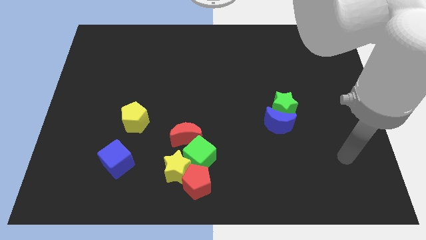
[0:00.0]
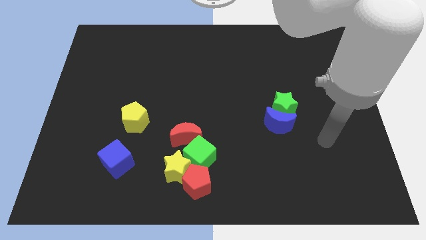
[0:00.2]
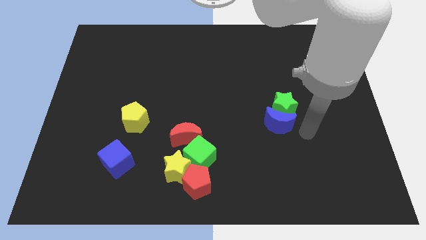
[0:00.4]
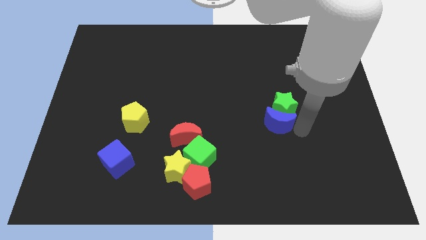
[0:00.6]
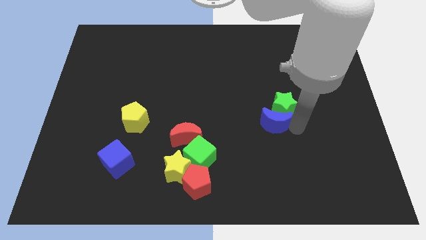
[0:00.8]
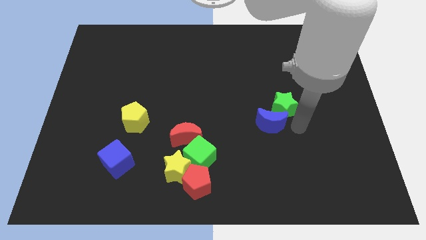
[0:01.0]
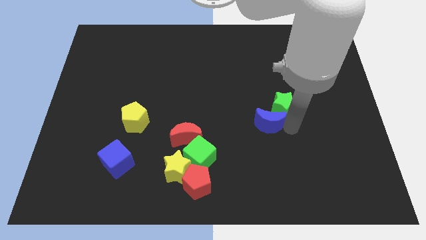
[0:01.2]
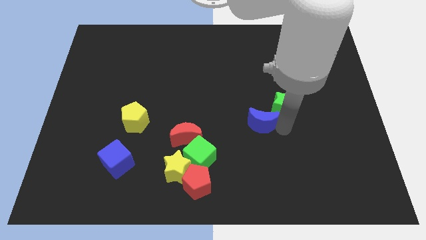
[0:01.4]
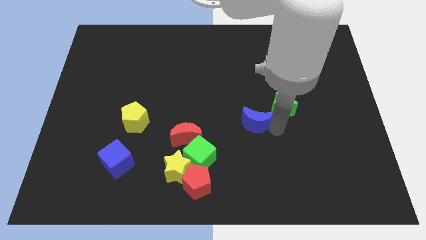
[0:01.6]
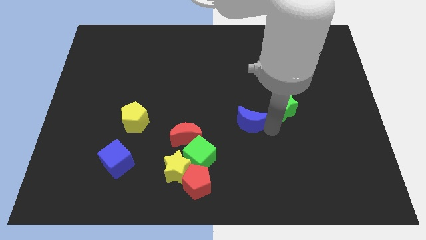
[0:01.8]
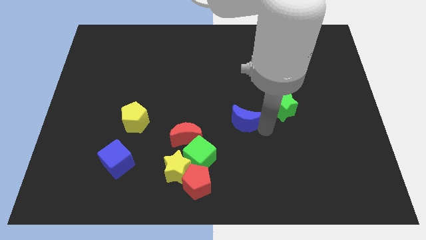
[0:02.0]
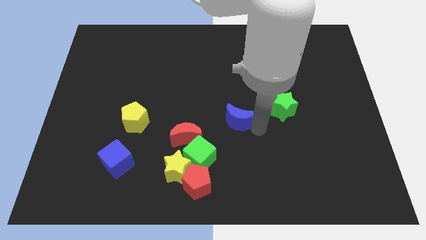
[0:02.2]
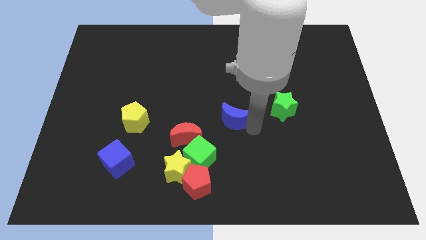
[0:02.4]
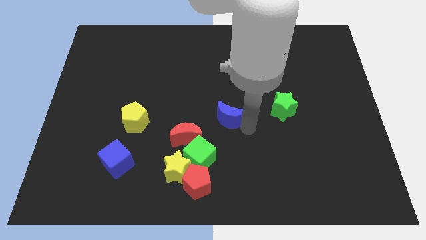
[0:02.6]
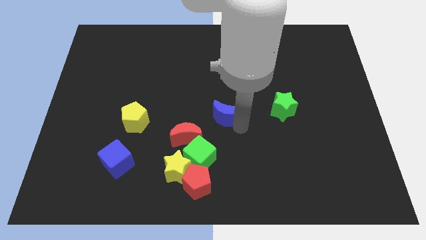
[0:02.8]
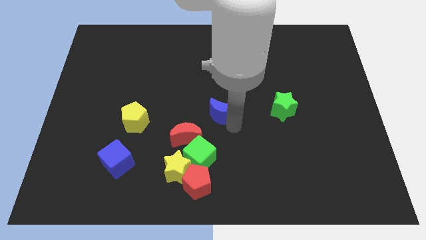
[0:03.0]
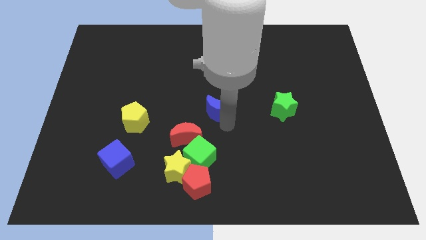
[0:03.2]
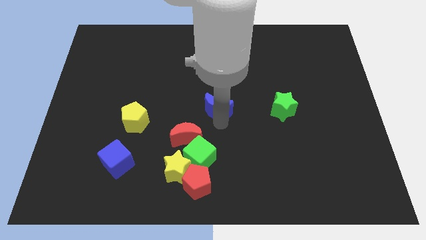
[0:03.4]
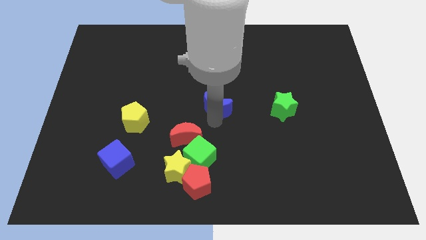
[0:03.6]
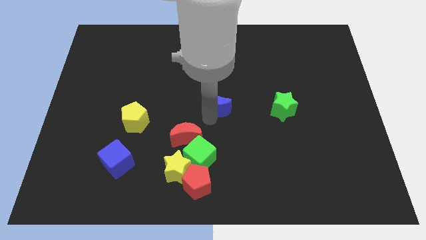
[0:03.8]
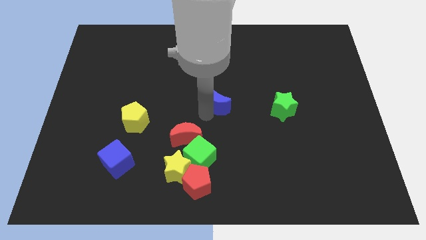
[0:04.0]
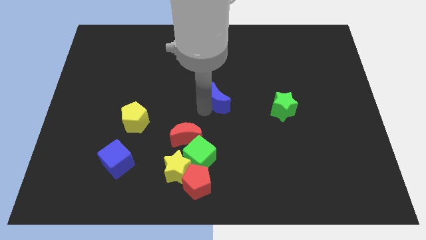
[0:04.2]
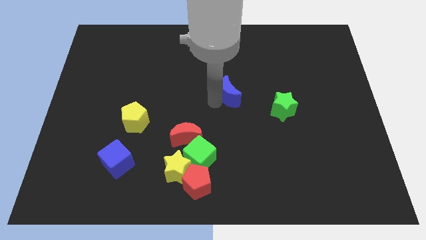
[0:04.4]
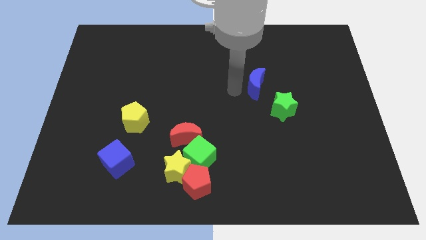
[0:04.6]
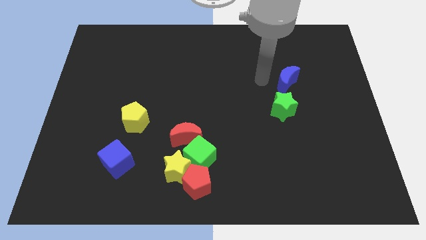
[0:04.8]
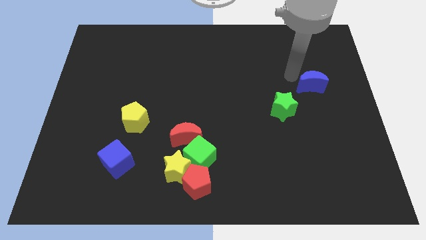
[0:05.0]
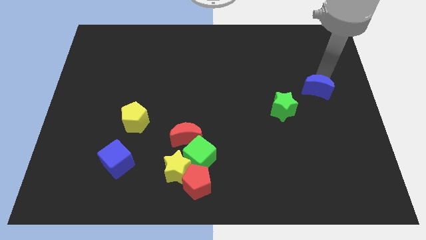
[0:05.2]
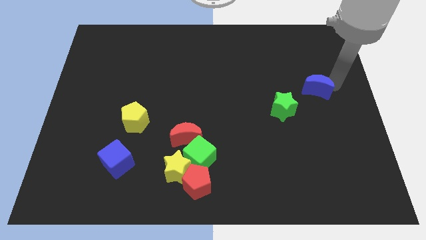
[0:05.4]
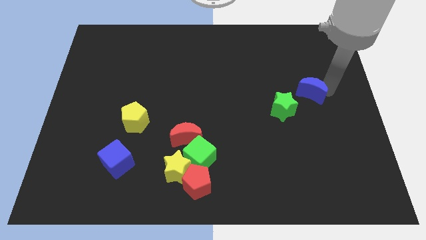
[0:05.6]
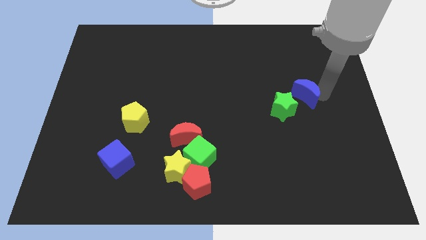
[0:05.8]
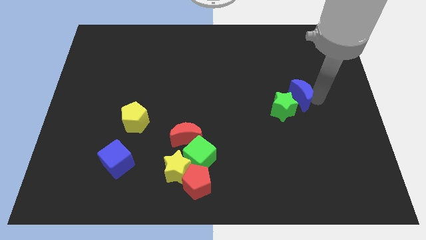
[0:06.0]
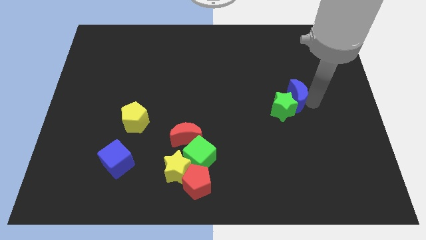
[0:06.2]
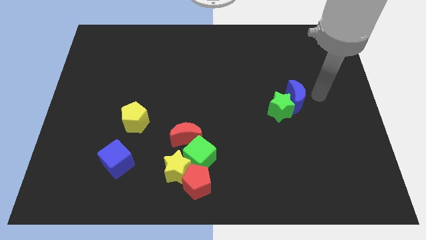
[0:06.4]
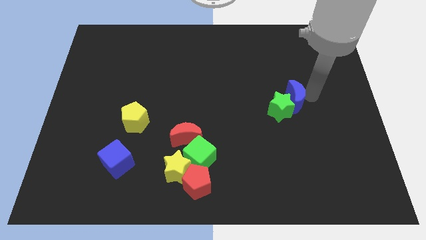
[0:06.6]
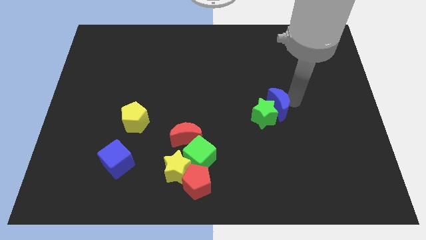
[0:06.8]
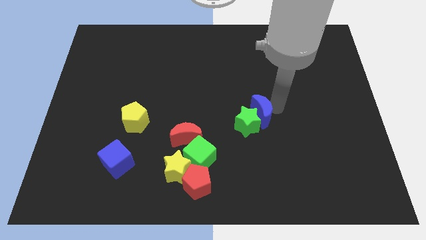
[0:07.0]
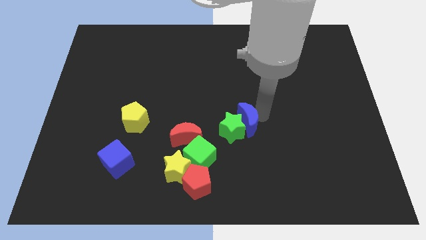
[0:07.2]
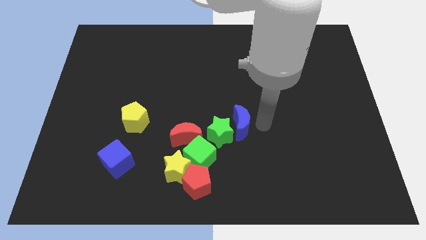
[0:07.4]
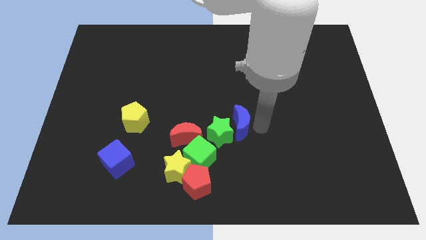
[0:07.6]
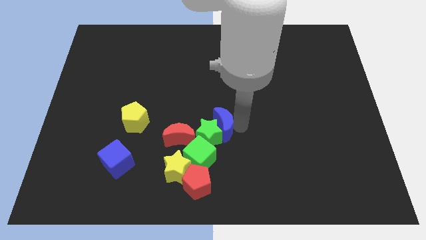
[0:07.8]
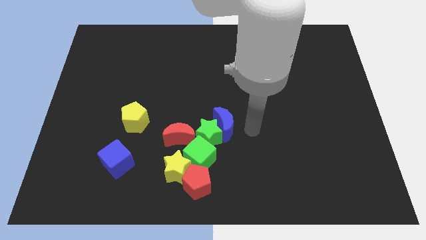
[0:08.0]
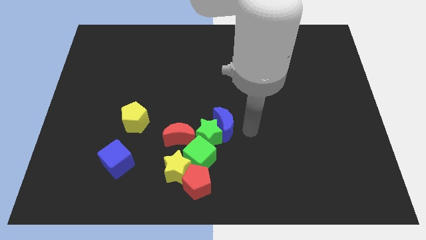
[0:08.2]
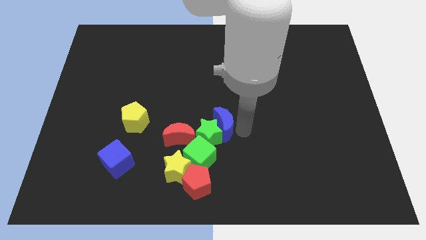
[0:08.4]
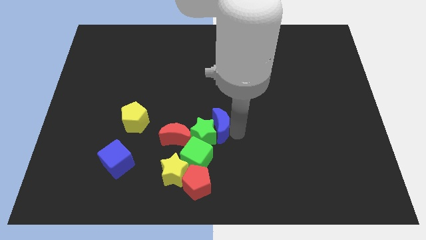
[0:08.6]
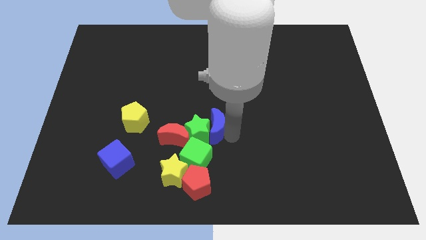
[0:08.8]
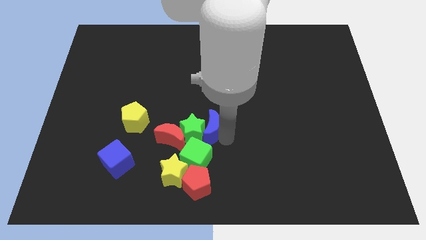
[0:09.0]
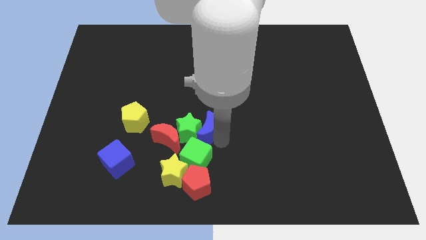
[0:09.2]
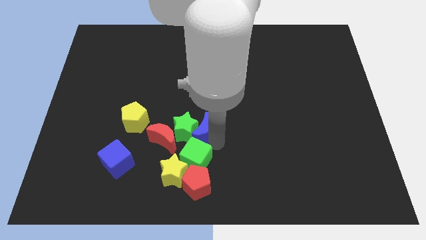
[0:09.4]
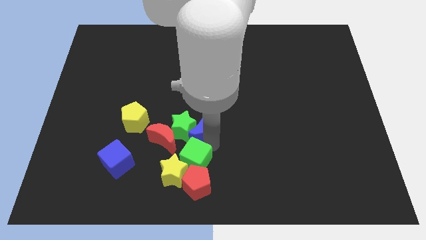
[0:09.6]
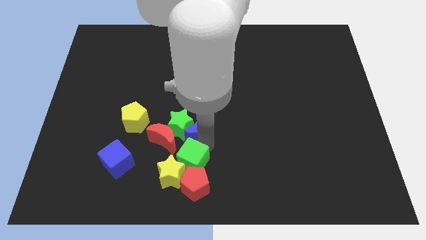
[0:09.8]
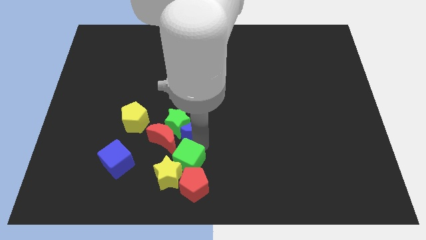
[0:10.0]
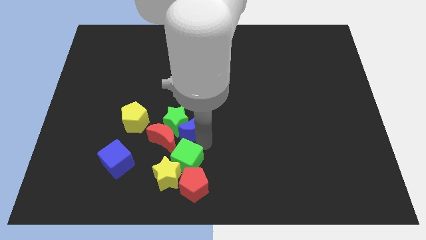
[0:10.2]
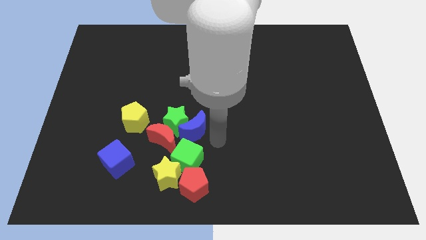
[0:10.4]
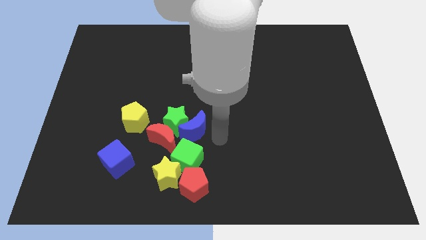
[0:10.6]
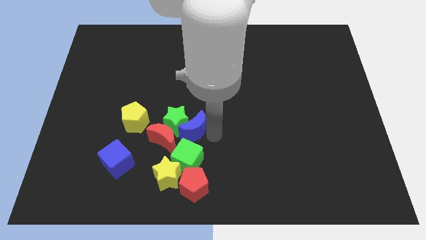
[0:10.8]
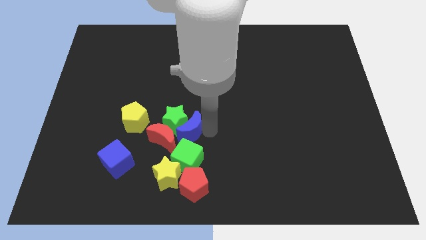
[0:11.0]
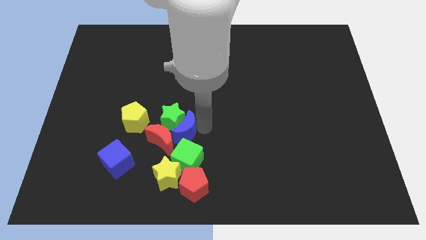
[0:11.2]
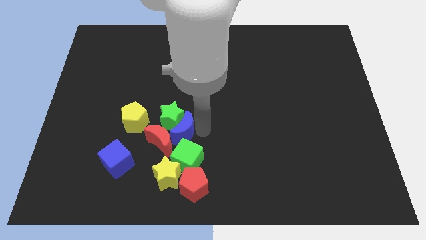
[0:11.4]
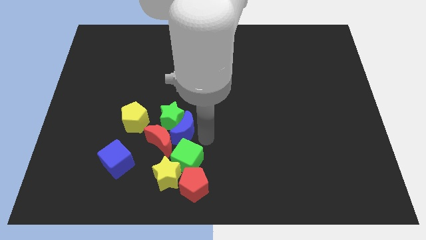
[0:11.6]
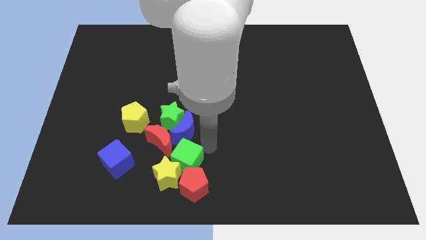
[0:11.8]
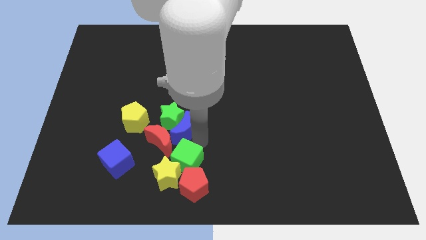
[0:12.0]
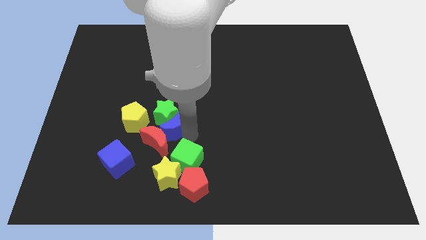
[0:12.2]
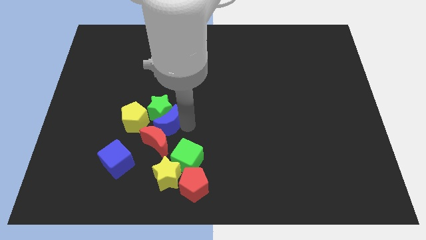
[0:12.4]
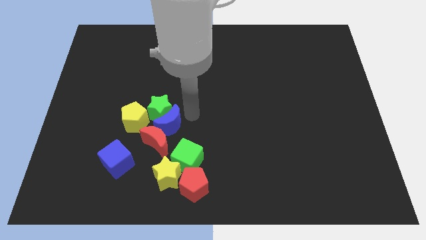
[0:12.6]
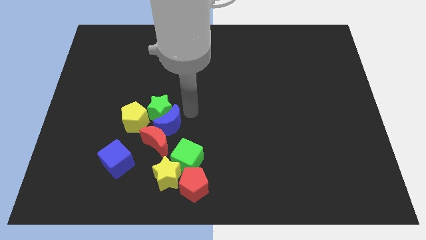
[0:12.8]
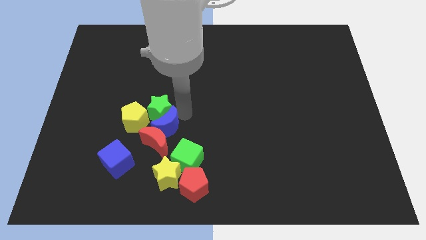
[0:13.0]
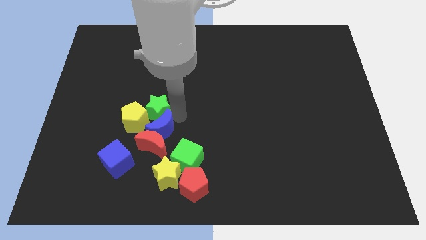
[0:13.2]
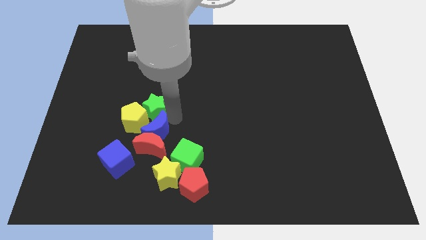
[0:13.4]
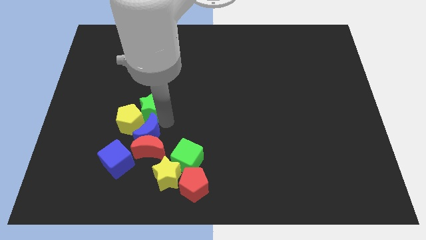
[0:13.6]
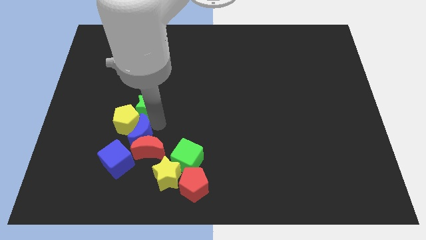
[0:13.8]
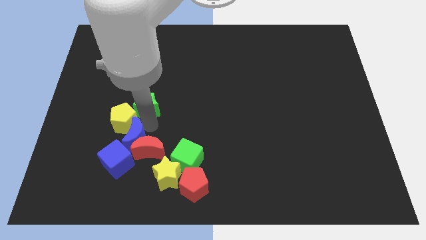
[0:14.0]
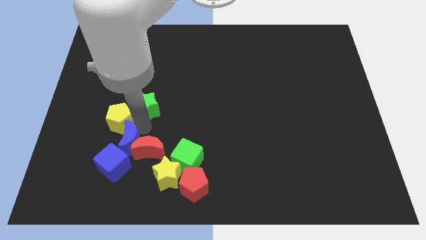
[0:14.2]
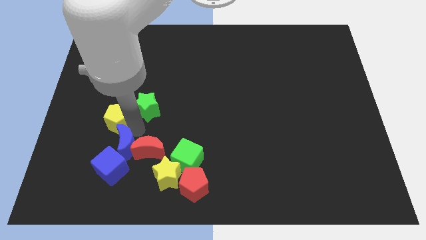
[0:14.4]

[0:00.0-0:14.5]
move the blue moon close to the blue cube
